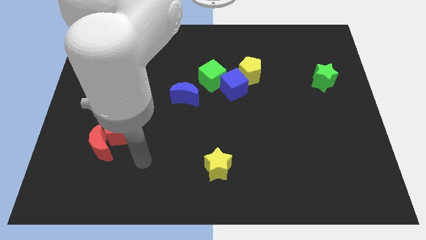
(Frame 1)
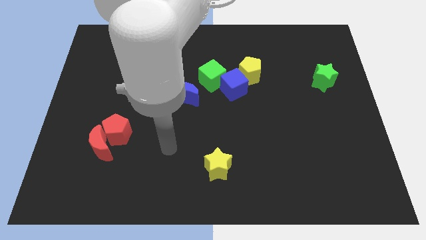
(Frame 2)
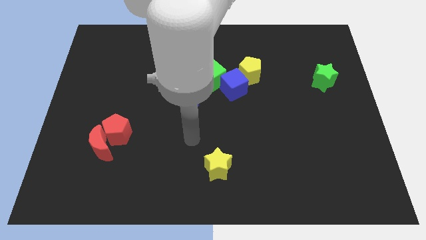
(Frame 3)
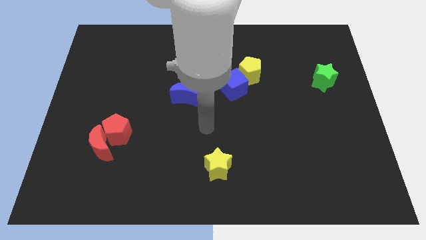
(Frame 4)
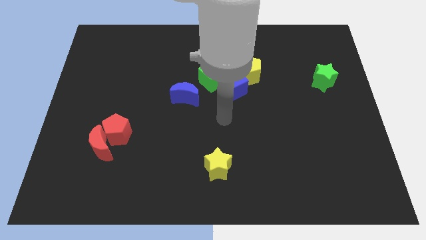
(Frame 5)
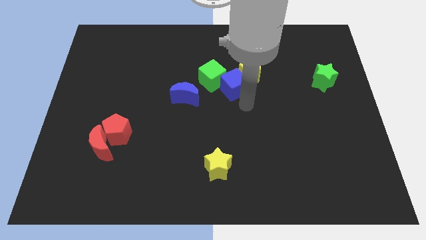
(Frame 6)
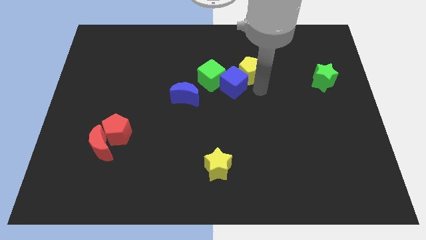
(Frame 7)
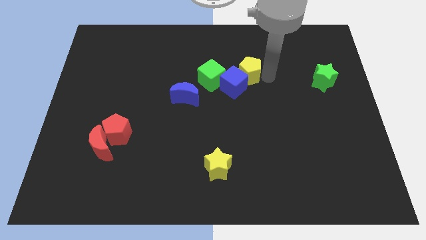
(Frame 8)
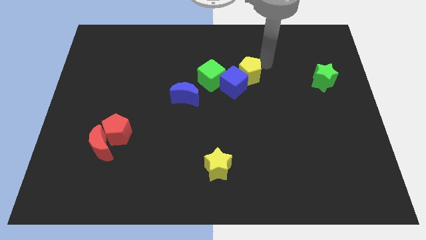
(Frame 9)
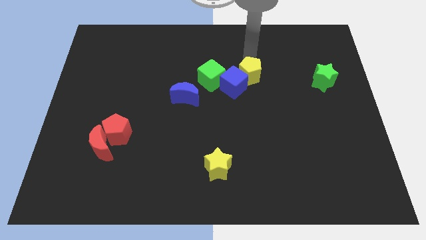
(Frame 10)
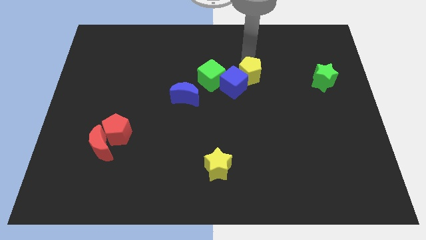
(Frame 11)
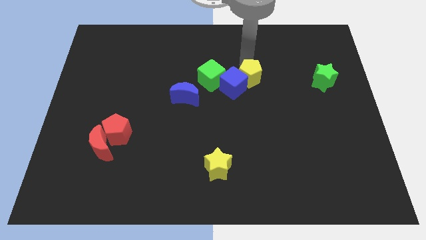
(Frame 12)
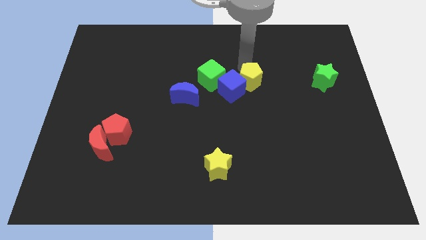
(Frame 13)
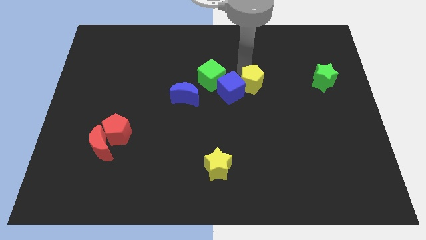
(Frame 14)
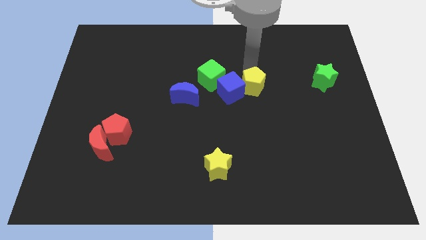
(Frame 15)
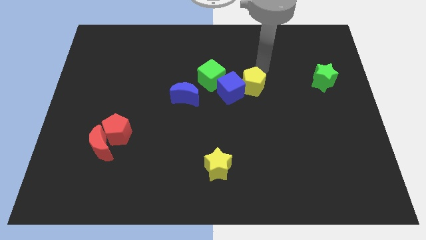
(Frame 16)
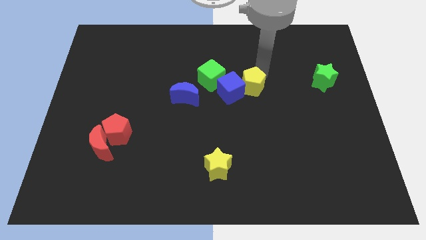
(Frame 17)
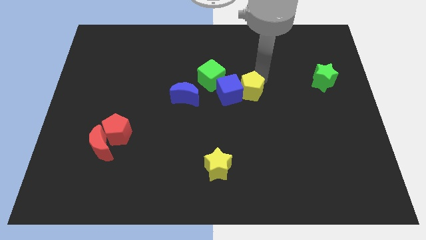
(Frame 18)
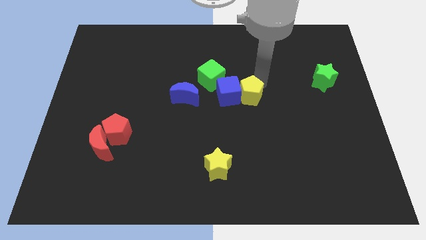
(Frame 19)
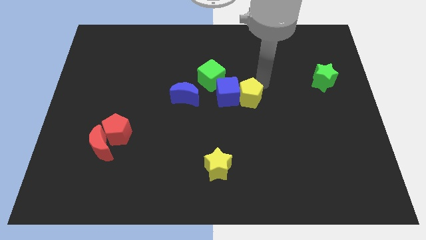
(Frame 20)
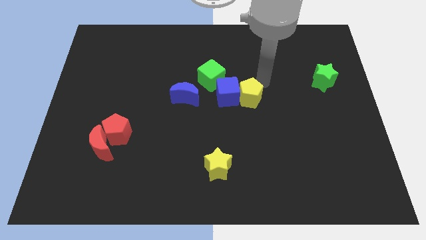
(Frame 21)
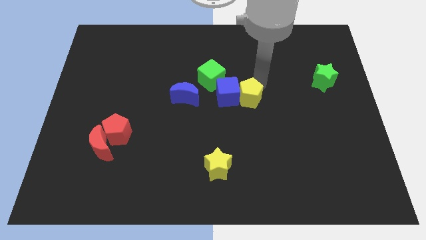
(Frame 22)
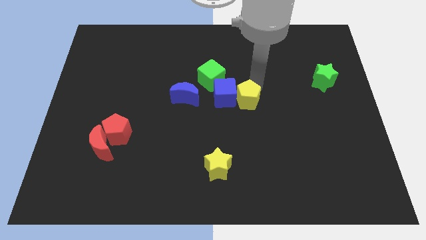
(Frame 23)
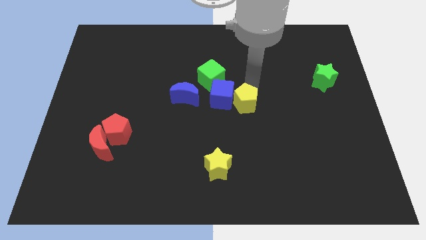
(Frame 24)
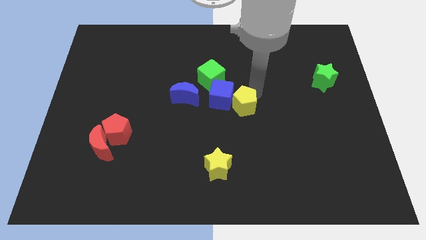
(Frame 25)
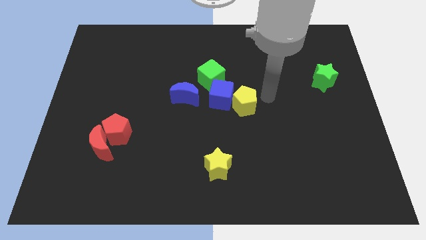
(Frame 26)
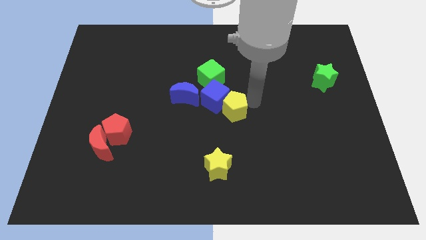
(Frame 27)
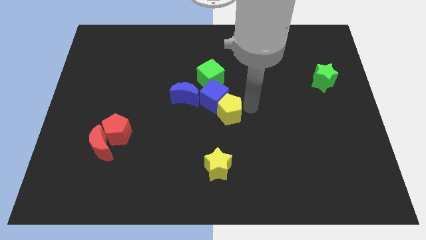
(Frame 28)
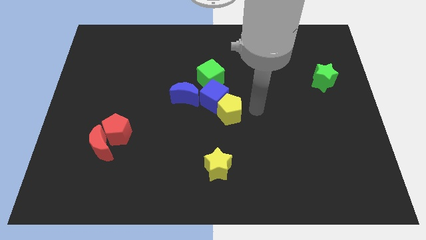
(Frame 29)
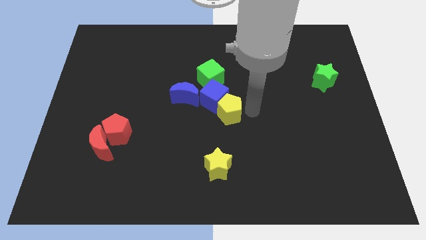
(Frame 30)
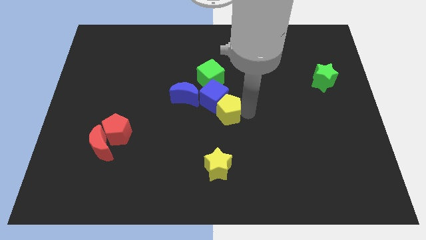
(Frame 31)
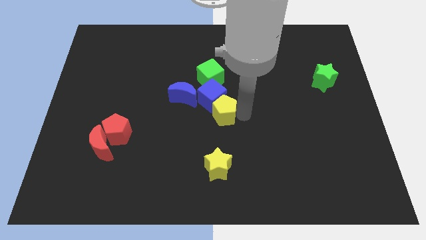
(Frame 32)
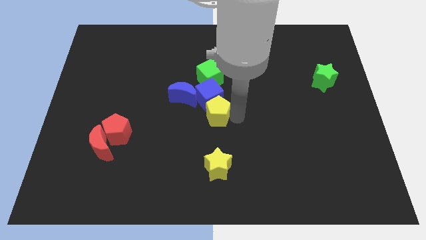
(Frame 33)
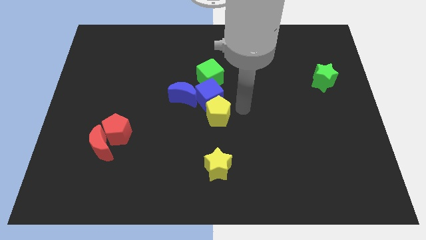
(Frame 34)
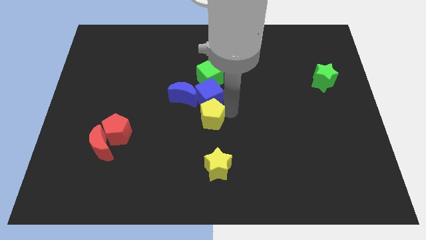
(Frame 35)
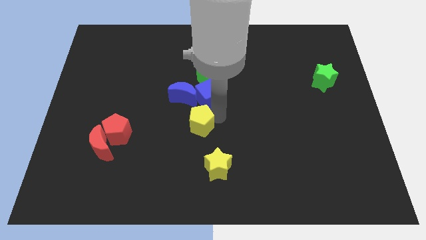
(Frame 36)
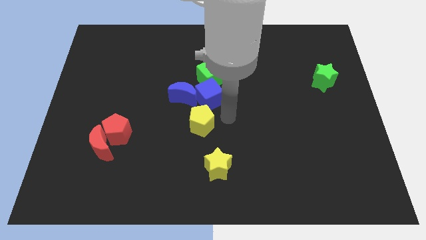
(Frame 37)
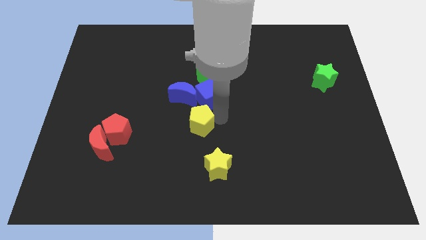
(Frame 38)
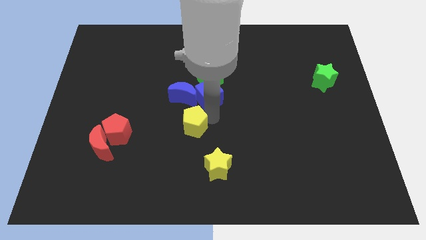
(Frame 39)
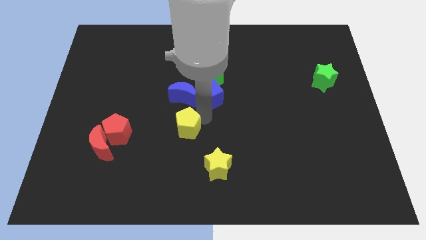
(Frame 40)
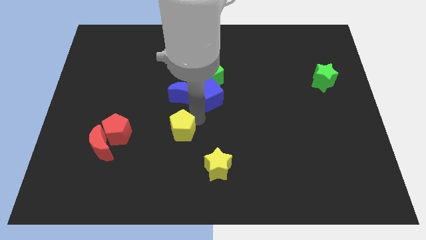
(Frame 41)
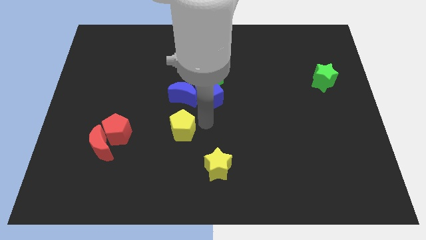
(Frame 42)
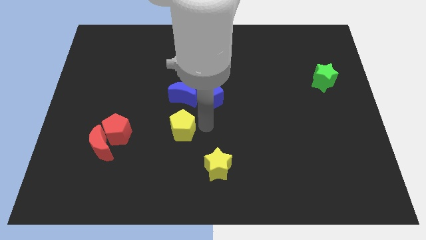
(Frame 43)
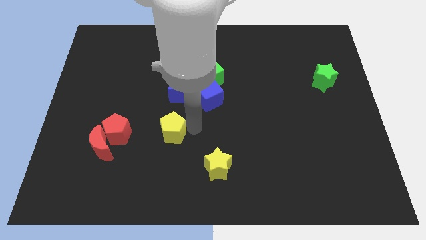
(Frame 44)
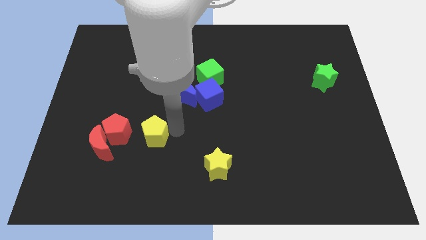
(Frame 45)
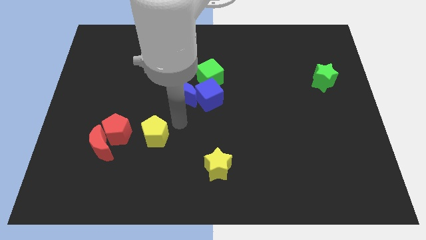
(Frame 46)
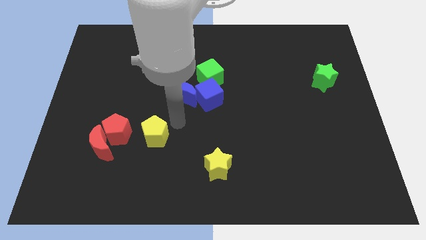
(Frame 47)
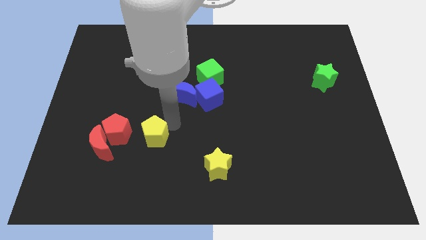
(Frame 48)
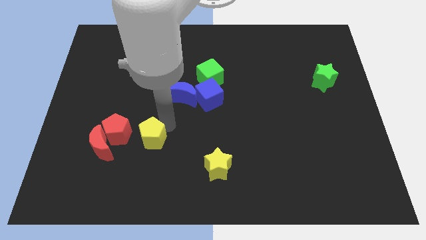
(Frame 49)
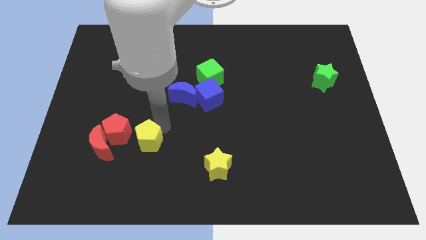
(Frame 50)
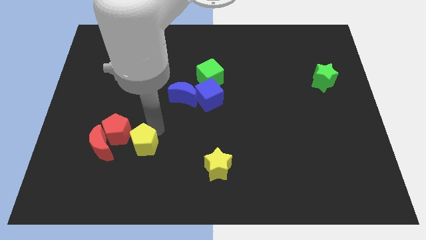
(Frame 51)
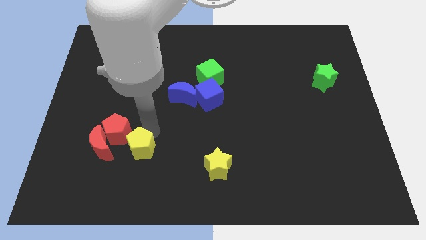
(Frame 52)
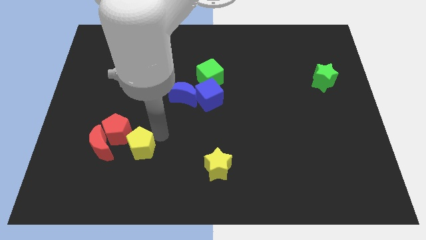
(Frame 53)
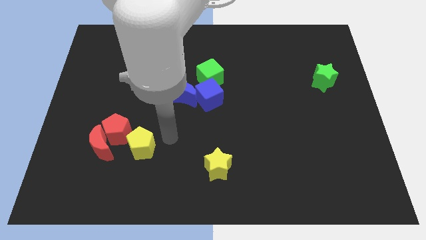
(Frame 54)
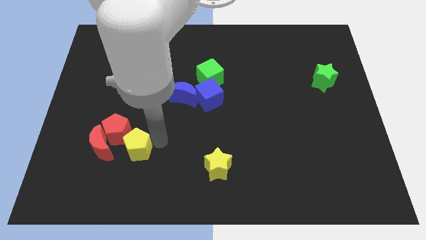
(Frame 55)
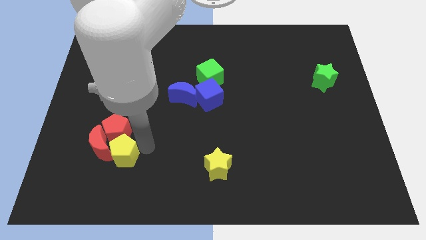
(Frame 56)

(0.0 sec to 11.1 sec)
slide the yellow pentagon close to the red moon
